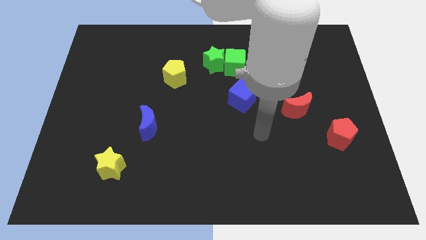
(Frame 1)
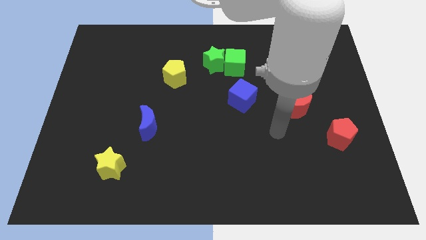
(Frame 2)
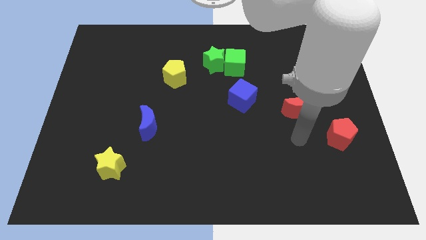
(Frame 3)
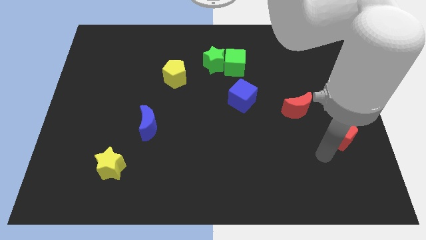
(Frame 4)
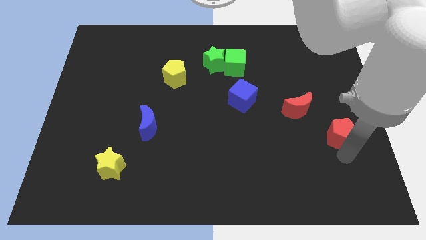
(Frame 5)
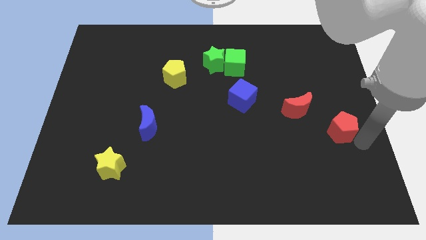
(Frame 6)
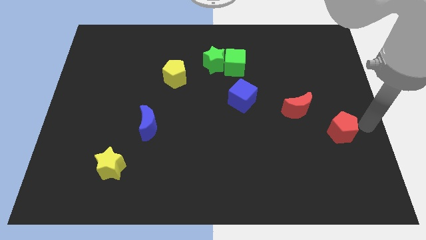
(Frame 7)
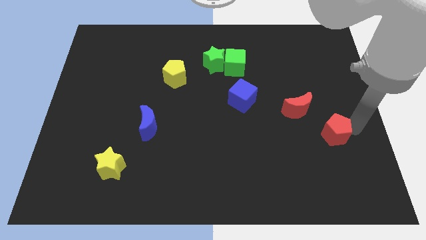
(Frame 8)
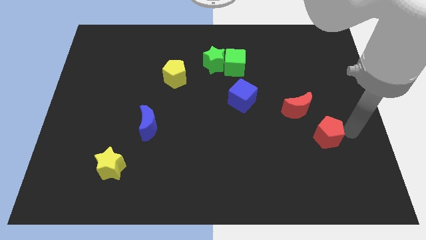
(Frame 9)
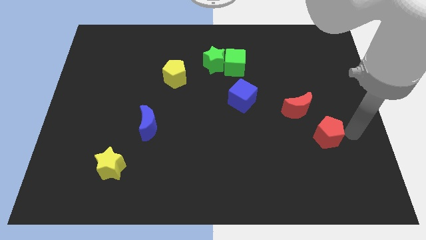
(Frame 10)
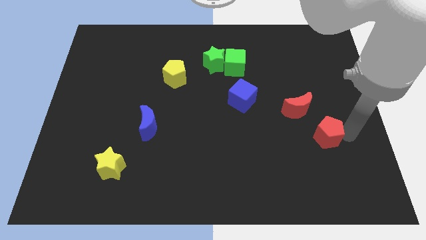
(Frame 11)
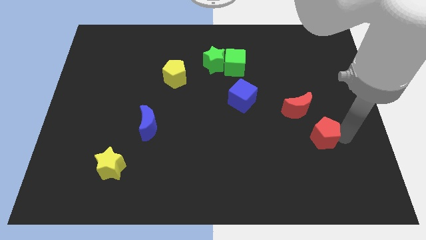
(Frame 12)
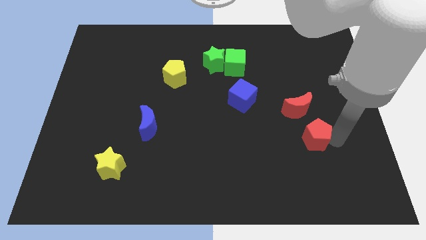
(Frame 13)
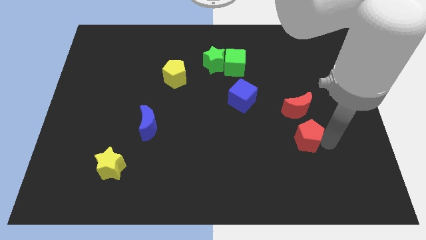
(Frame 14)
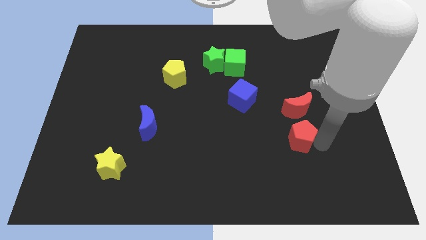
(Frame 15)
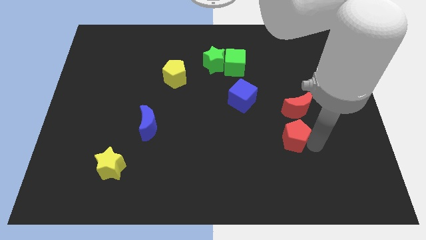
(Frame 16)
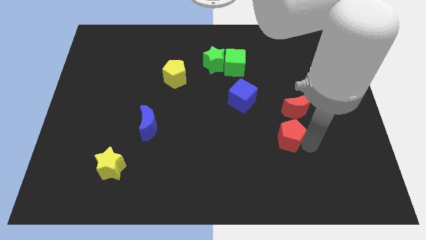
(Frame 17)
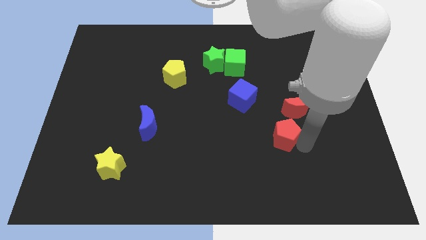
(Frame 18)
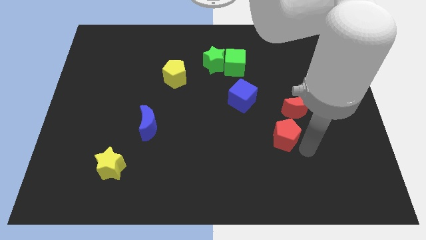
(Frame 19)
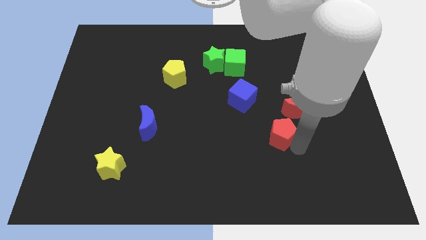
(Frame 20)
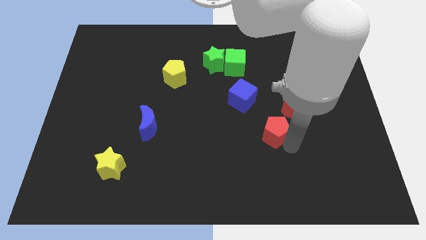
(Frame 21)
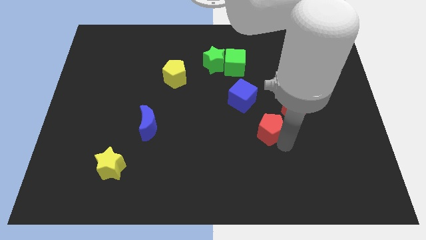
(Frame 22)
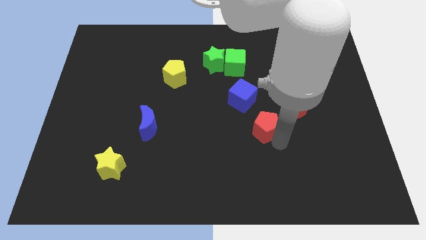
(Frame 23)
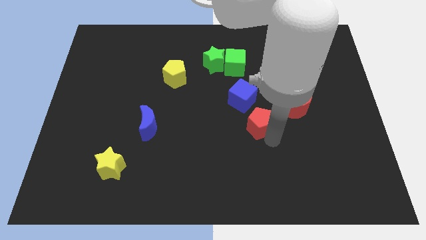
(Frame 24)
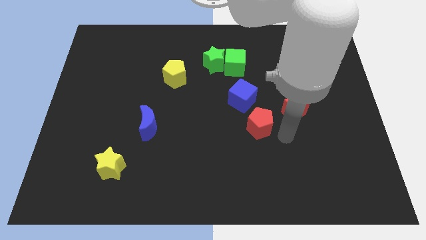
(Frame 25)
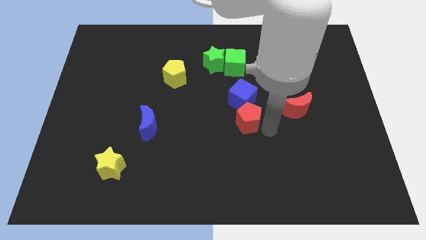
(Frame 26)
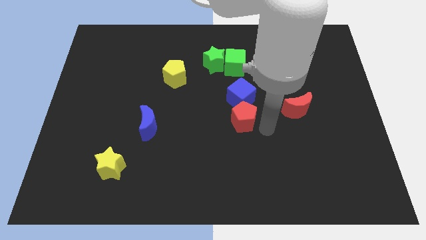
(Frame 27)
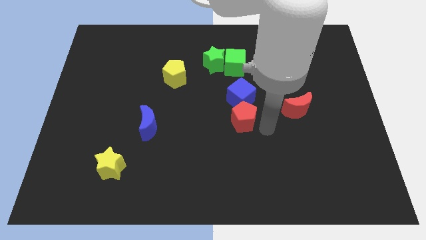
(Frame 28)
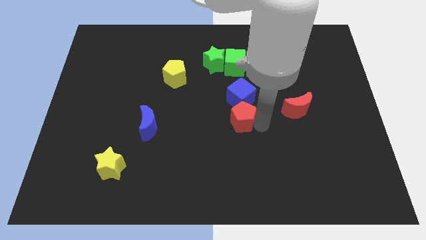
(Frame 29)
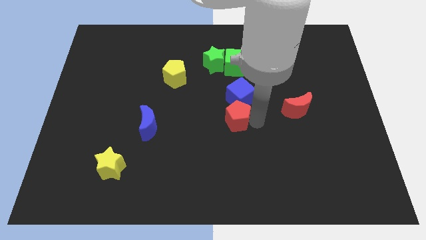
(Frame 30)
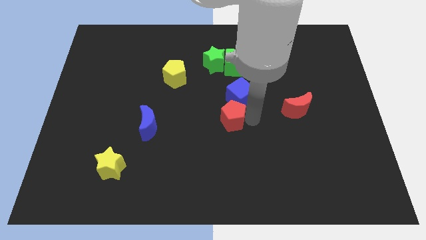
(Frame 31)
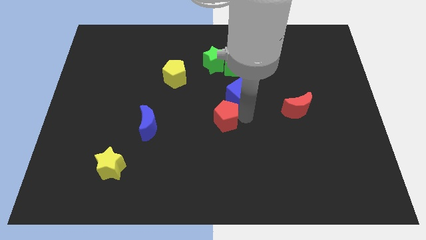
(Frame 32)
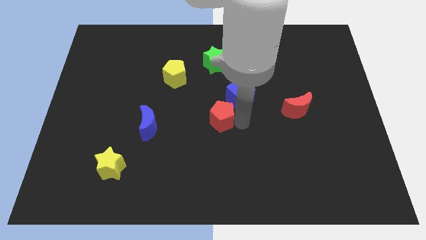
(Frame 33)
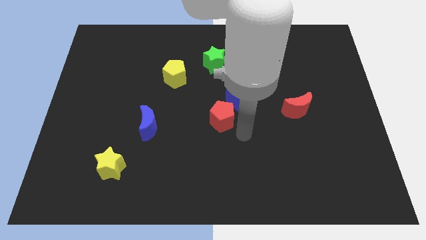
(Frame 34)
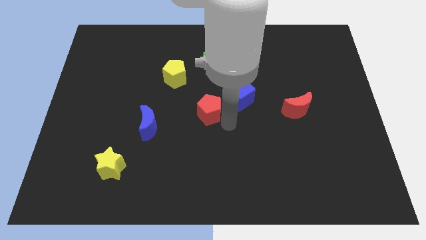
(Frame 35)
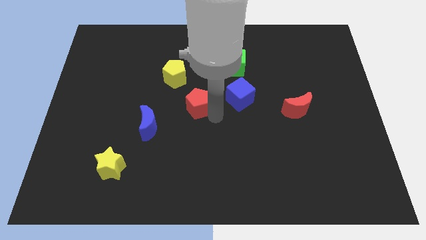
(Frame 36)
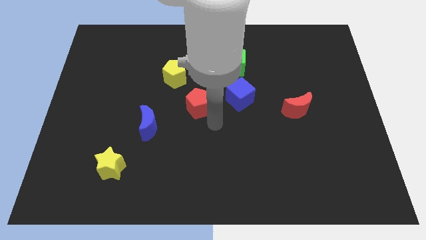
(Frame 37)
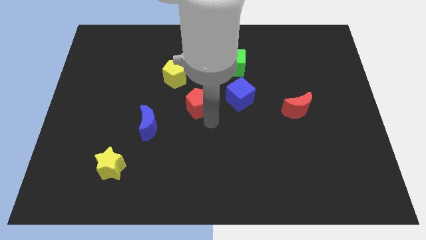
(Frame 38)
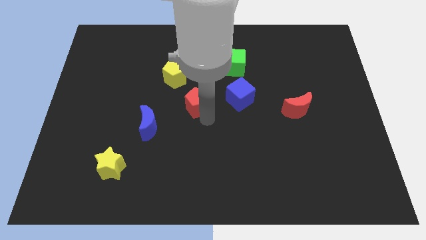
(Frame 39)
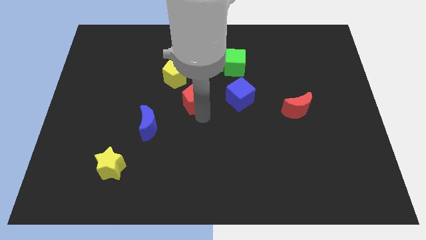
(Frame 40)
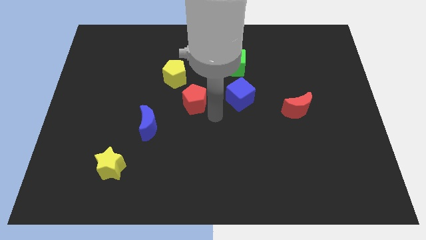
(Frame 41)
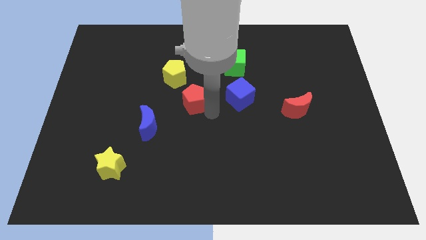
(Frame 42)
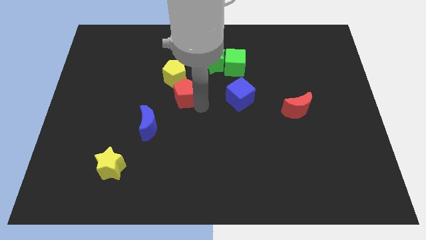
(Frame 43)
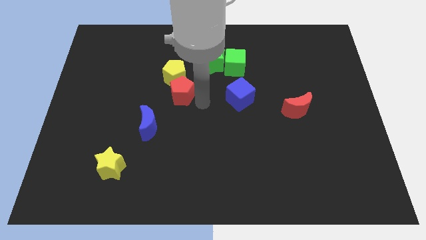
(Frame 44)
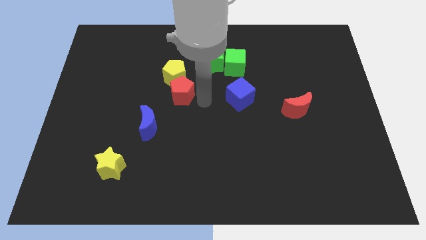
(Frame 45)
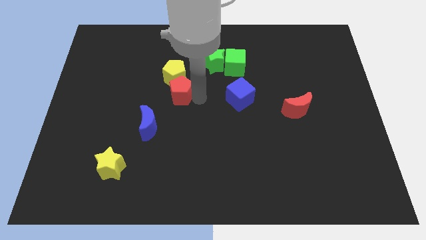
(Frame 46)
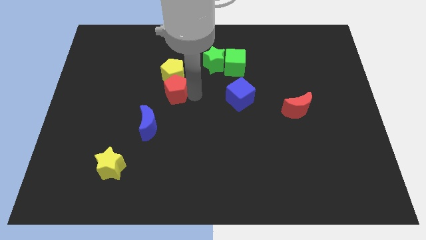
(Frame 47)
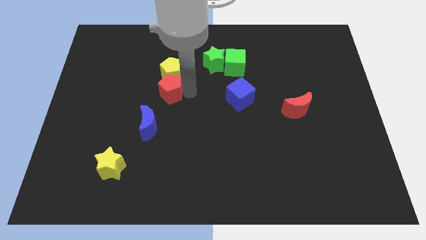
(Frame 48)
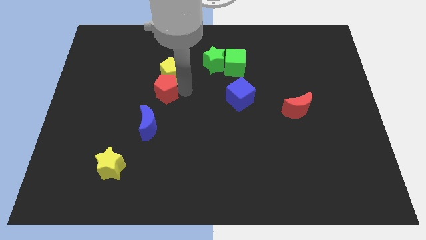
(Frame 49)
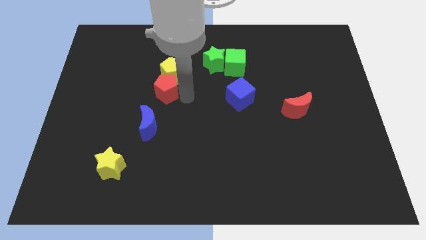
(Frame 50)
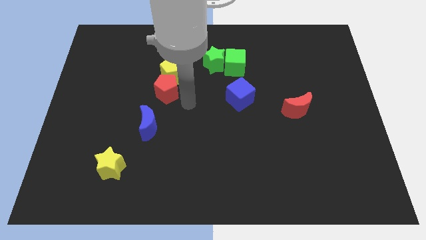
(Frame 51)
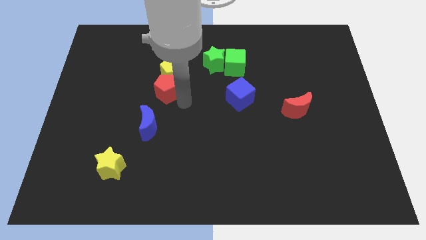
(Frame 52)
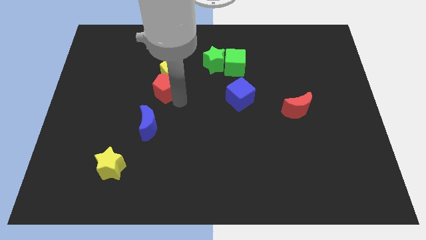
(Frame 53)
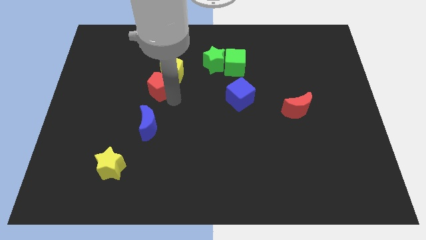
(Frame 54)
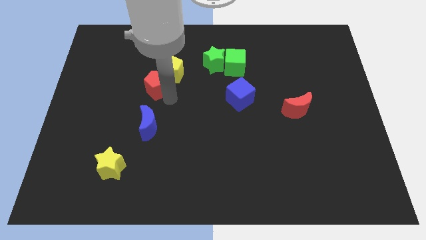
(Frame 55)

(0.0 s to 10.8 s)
push the red pentagon just left of the yellow pentagon

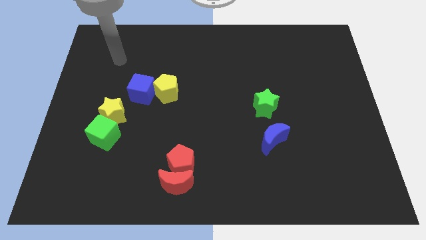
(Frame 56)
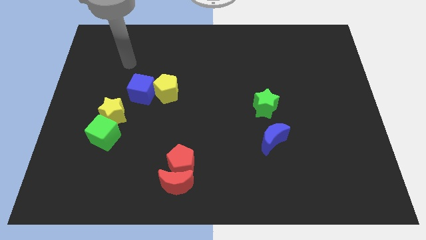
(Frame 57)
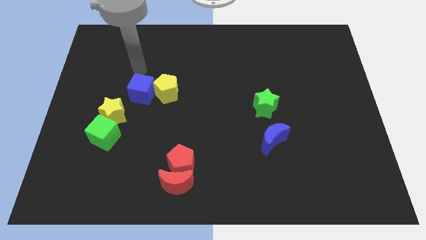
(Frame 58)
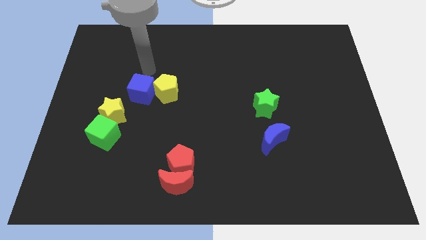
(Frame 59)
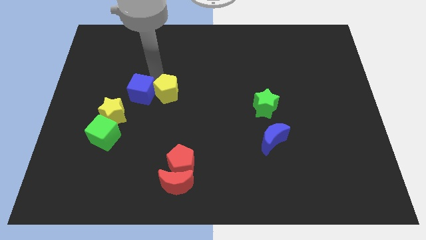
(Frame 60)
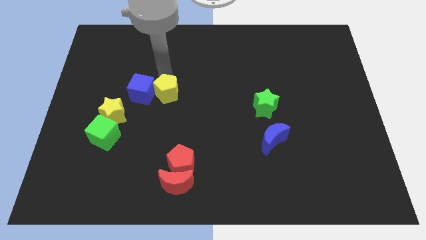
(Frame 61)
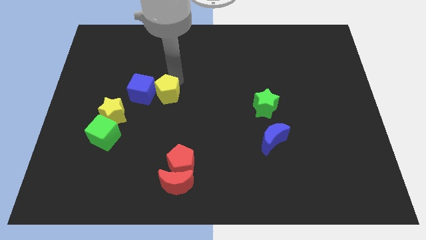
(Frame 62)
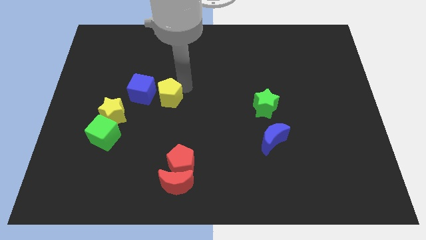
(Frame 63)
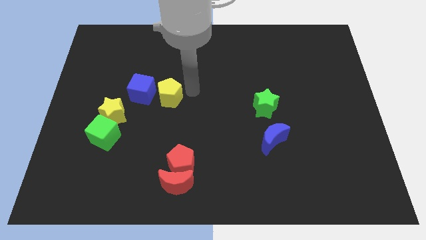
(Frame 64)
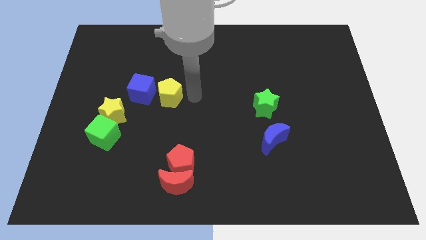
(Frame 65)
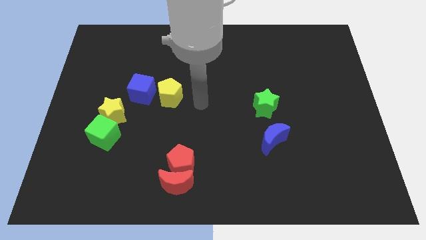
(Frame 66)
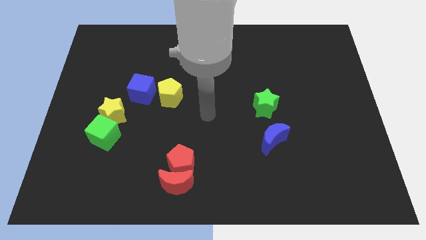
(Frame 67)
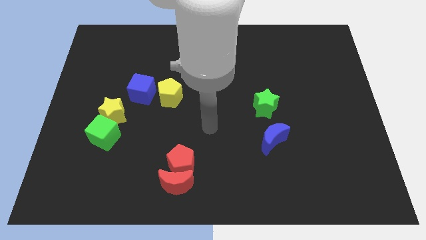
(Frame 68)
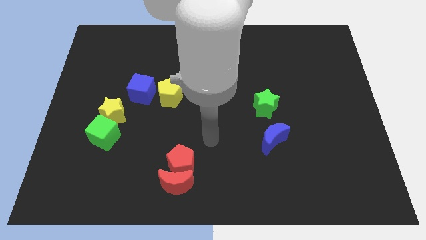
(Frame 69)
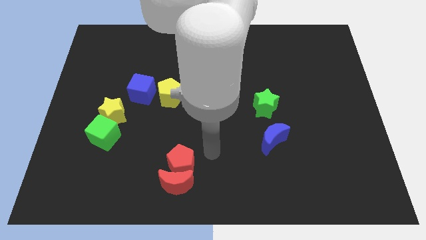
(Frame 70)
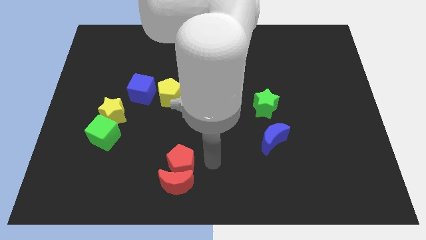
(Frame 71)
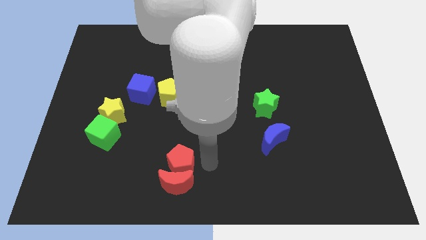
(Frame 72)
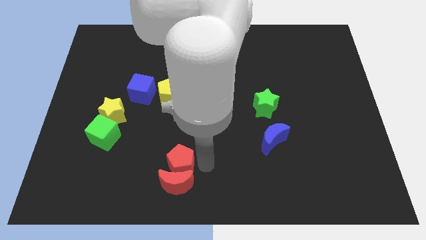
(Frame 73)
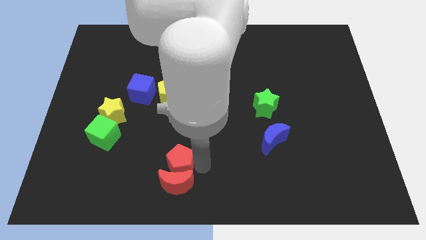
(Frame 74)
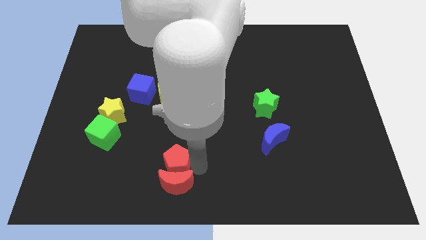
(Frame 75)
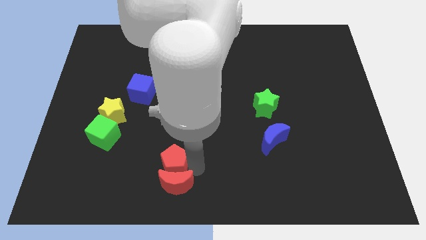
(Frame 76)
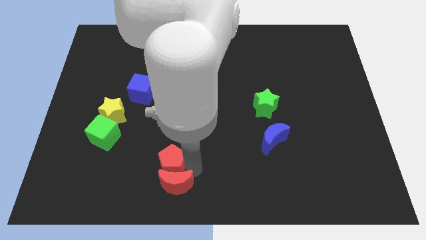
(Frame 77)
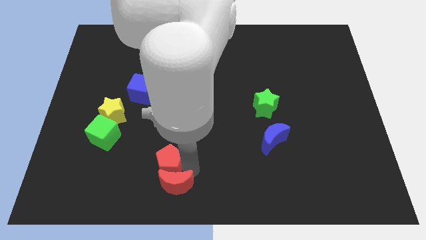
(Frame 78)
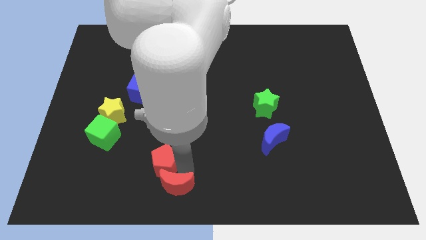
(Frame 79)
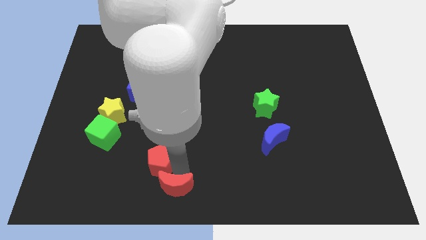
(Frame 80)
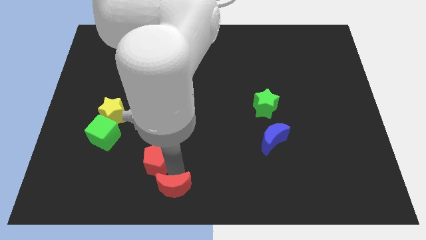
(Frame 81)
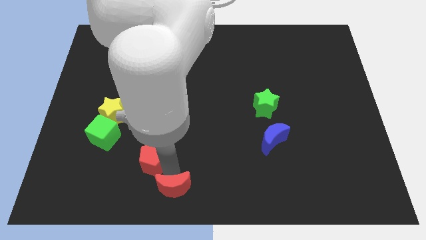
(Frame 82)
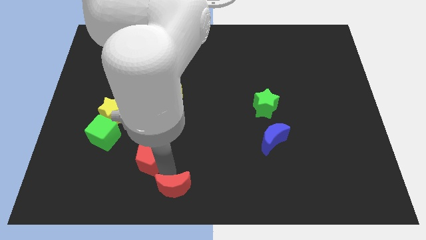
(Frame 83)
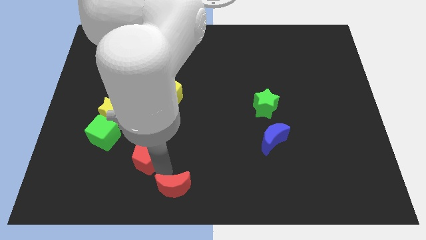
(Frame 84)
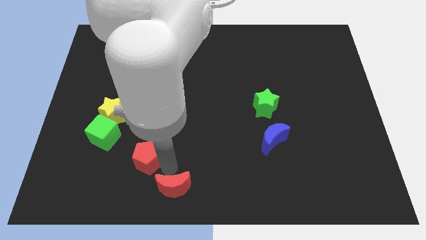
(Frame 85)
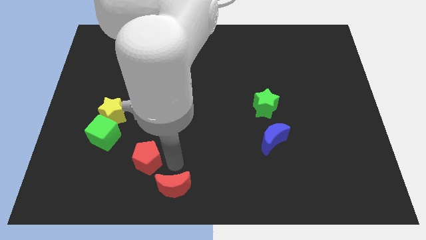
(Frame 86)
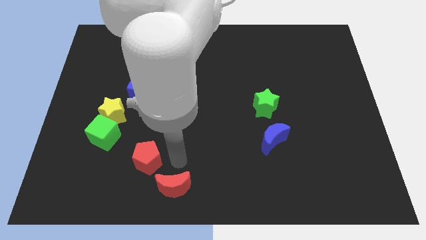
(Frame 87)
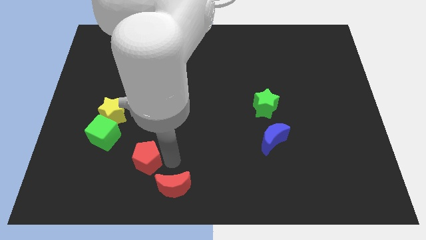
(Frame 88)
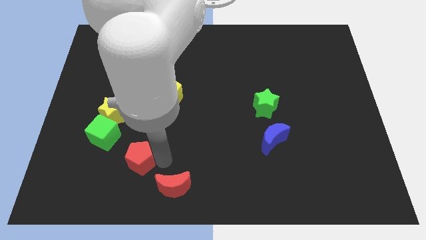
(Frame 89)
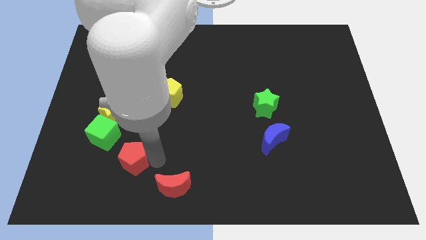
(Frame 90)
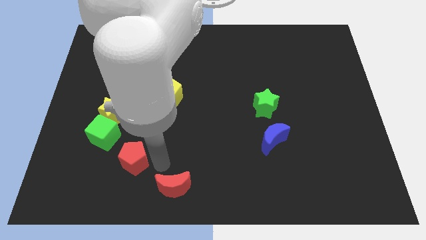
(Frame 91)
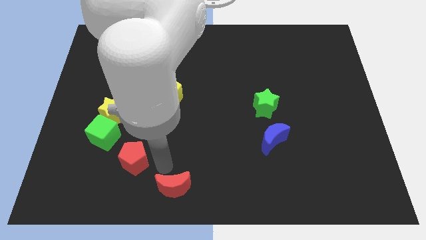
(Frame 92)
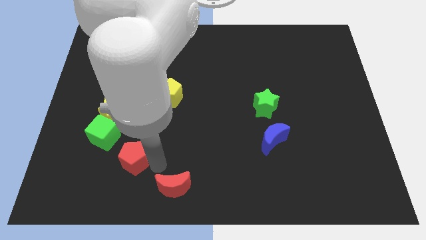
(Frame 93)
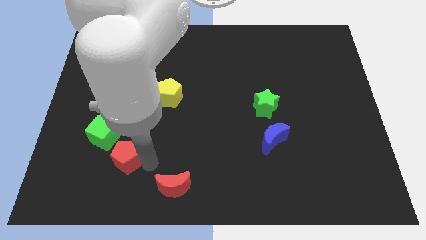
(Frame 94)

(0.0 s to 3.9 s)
slide the red pentagon to the bottom side of the yellow star
